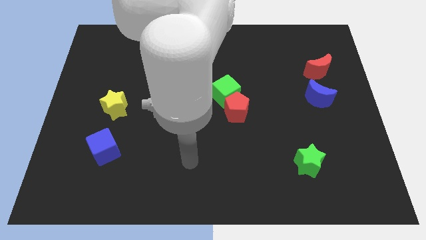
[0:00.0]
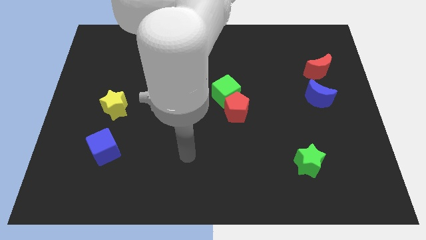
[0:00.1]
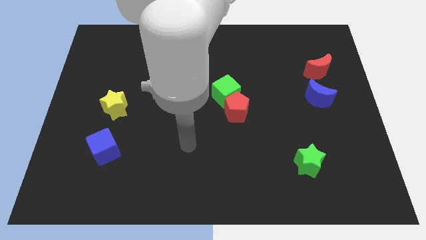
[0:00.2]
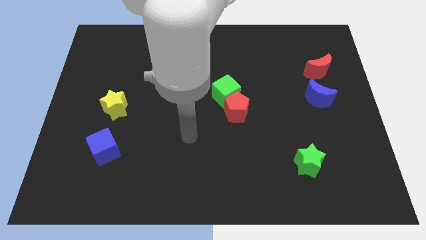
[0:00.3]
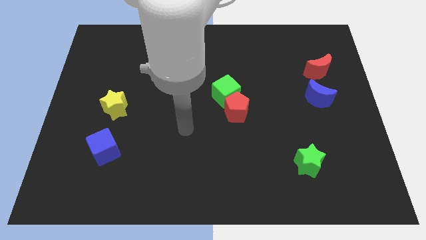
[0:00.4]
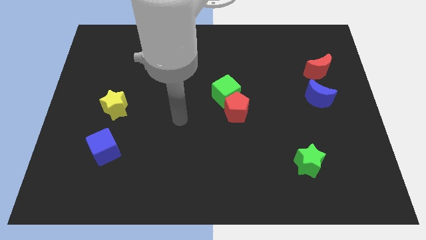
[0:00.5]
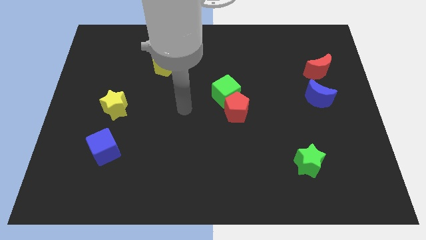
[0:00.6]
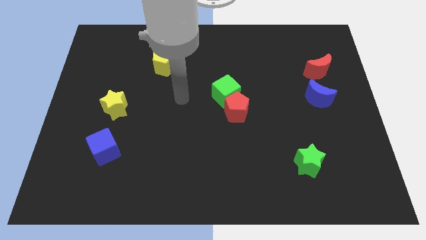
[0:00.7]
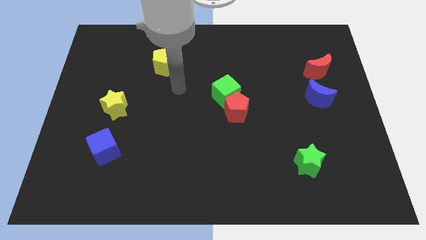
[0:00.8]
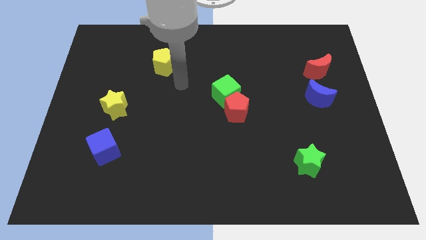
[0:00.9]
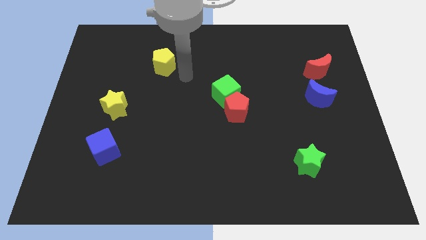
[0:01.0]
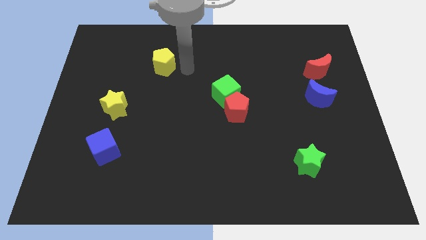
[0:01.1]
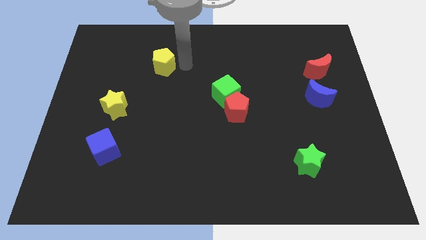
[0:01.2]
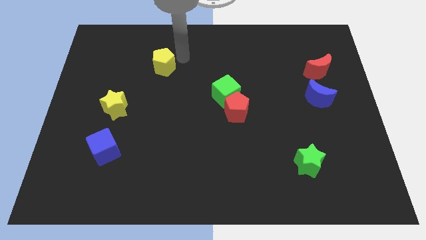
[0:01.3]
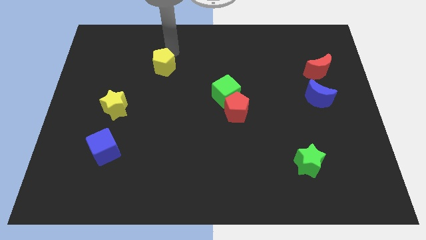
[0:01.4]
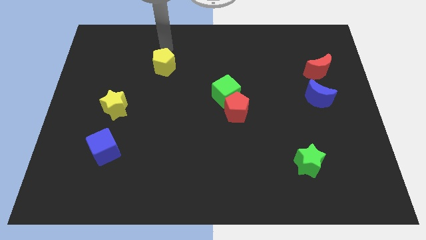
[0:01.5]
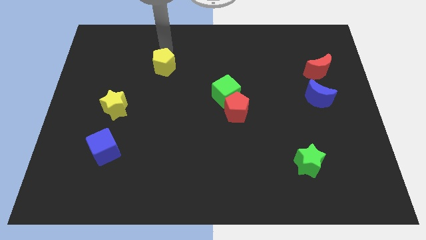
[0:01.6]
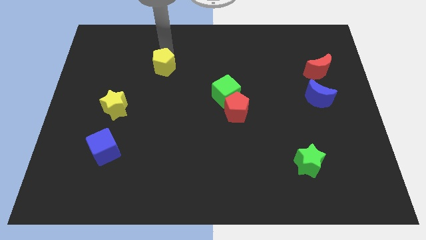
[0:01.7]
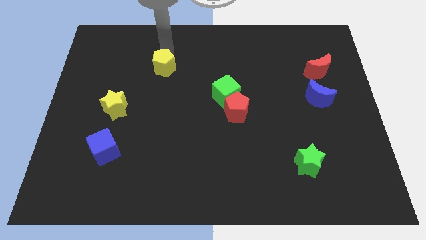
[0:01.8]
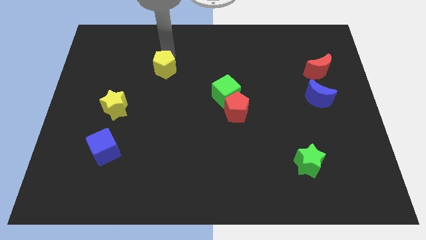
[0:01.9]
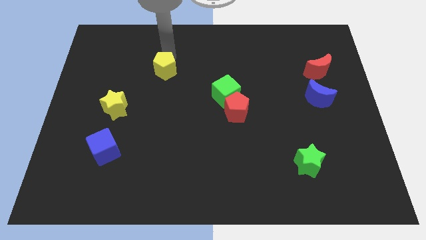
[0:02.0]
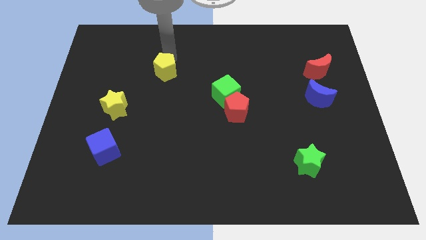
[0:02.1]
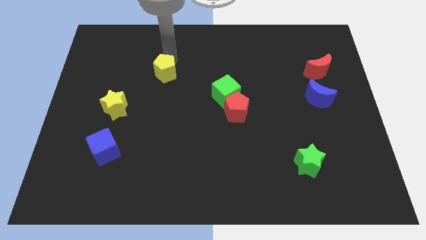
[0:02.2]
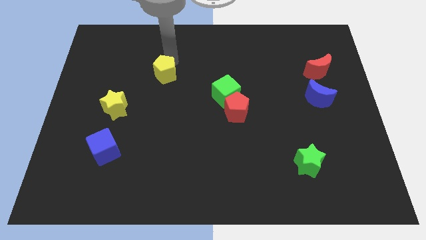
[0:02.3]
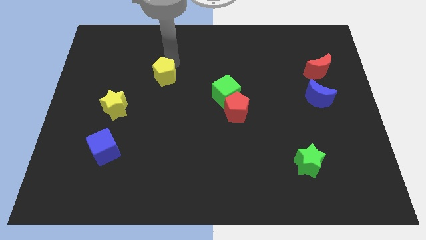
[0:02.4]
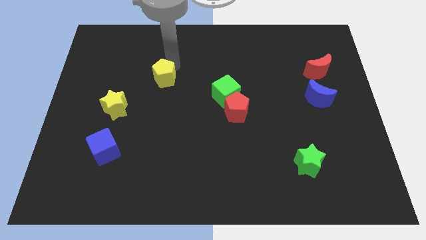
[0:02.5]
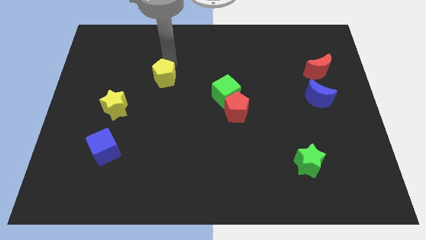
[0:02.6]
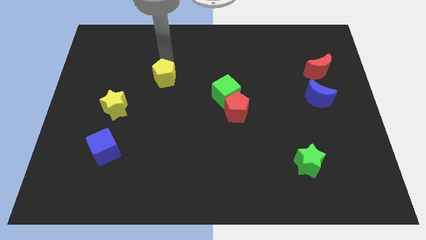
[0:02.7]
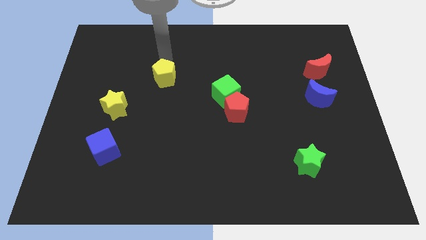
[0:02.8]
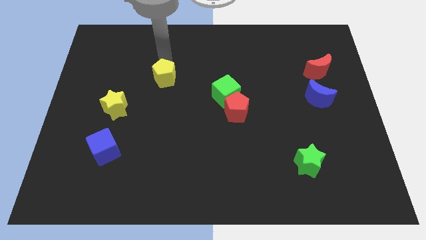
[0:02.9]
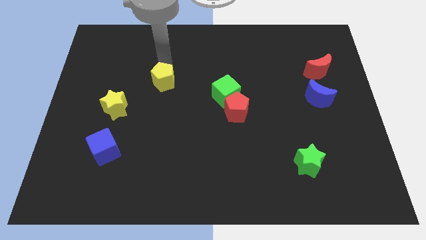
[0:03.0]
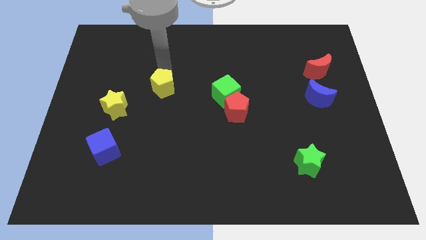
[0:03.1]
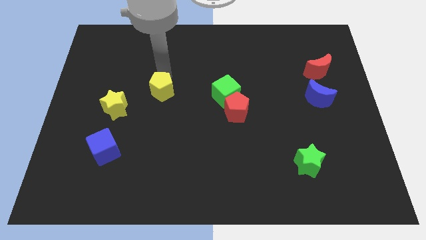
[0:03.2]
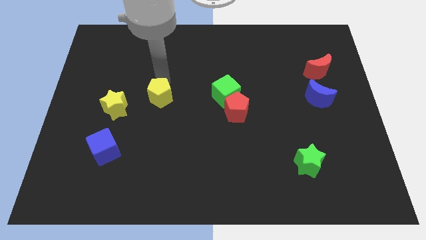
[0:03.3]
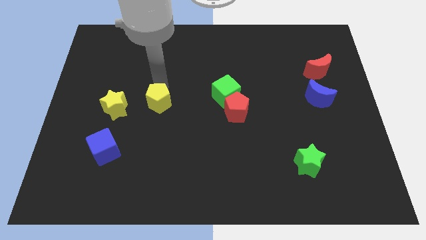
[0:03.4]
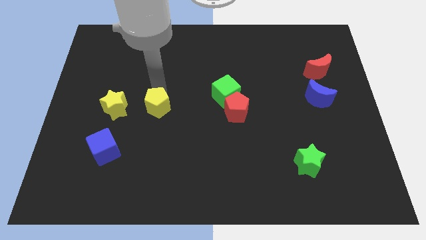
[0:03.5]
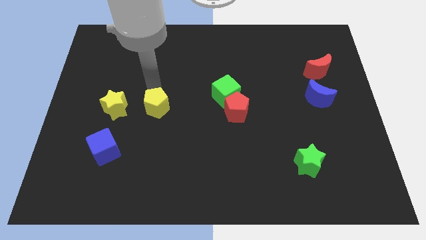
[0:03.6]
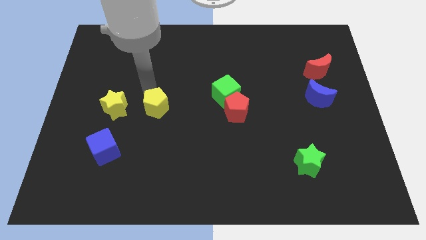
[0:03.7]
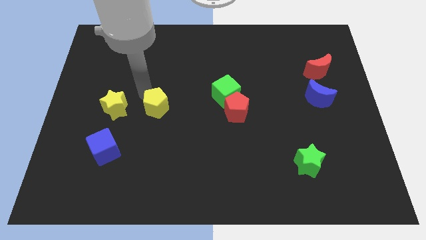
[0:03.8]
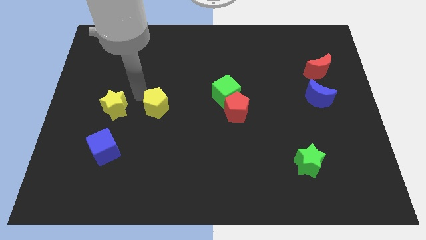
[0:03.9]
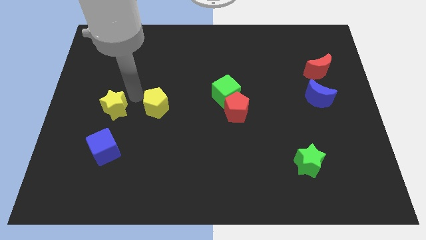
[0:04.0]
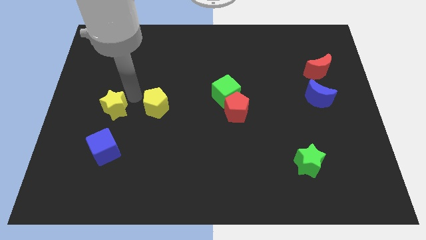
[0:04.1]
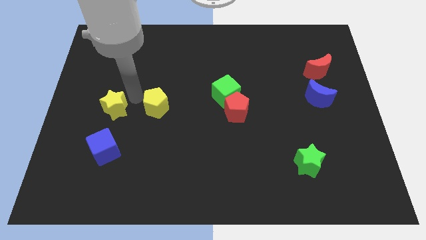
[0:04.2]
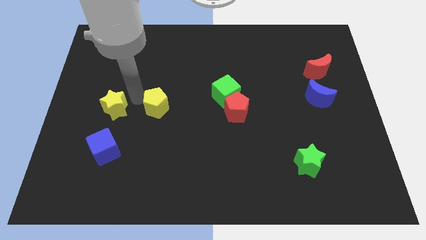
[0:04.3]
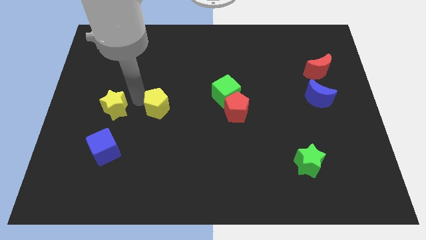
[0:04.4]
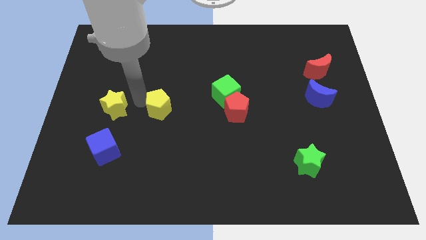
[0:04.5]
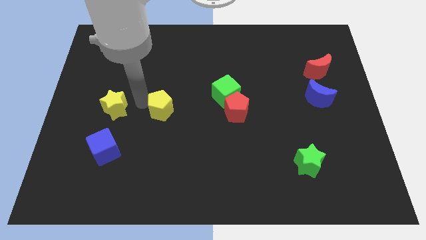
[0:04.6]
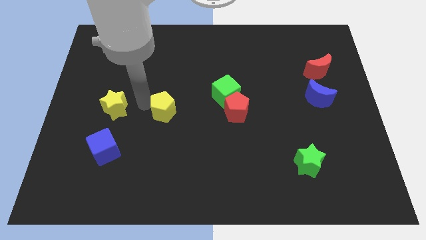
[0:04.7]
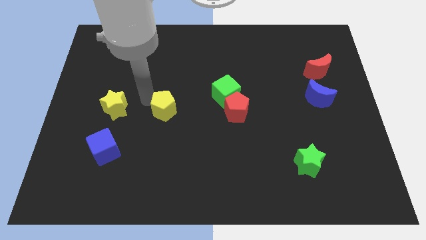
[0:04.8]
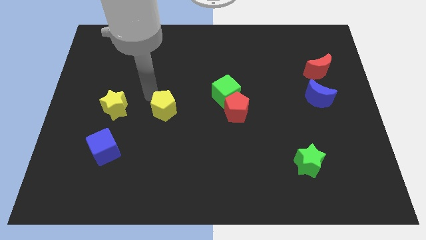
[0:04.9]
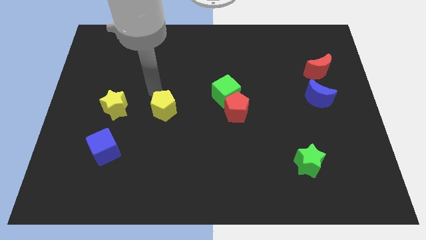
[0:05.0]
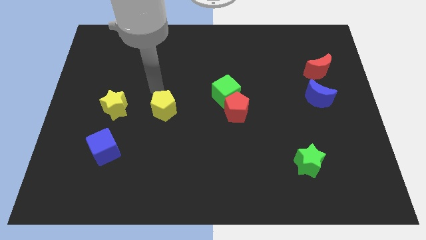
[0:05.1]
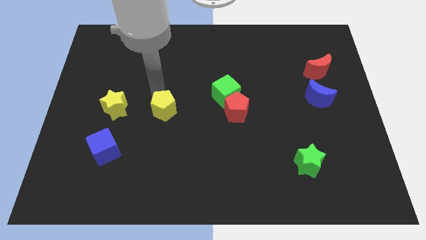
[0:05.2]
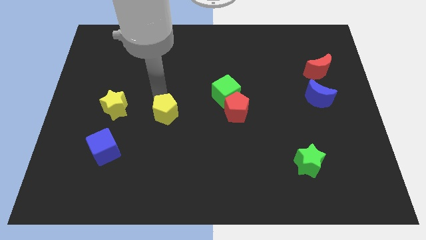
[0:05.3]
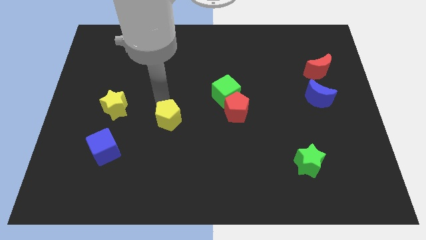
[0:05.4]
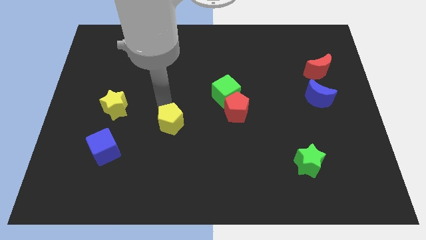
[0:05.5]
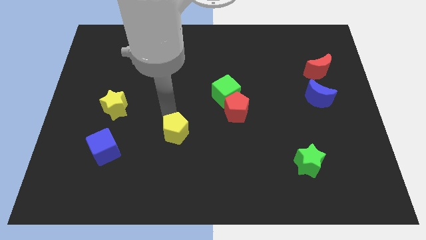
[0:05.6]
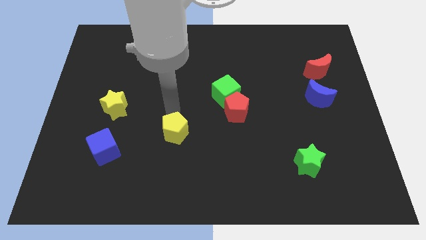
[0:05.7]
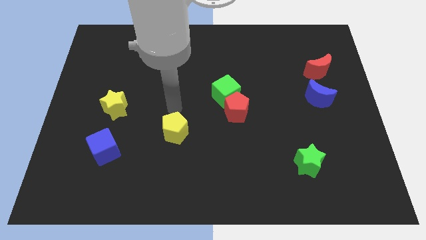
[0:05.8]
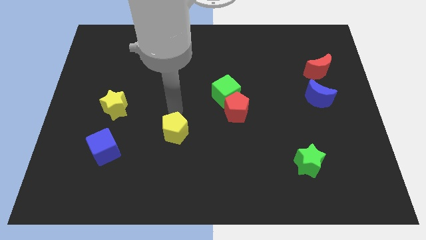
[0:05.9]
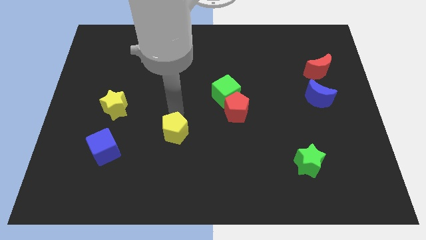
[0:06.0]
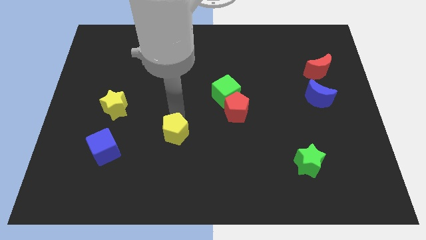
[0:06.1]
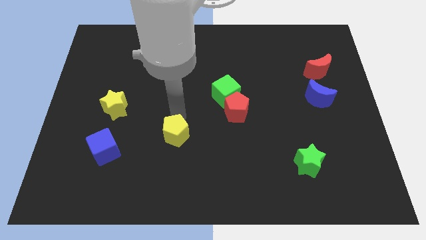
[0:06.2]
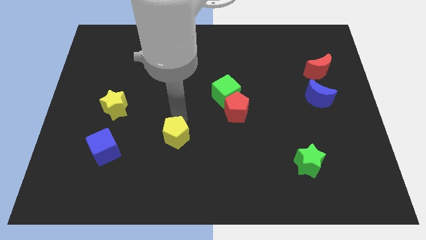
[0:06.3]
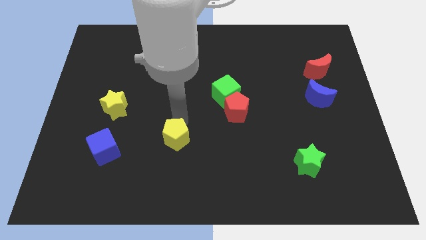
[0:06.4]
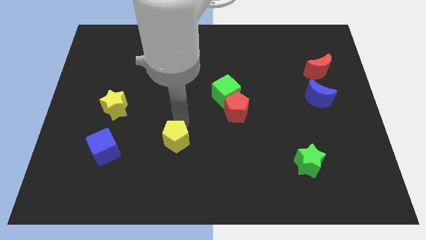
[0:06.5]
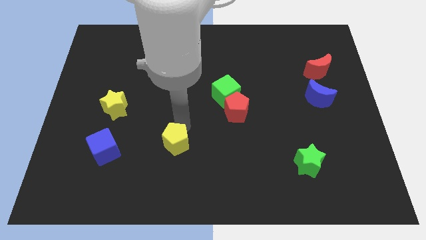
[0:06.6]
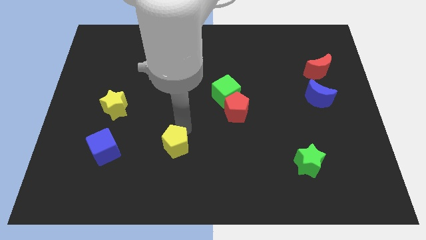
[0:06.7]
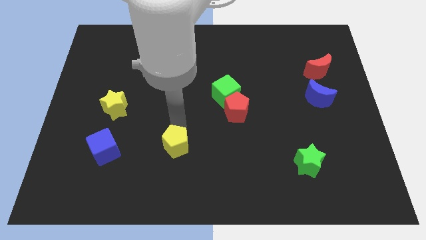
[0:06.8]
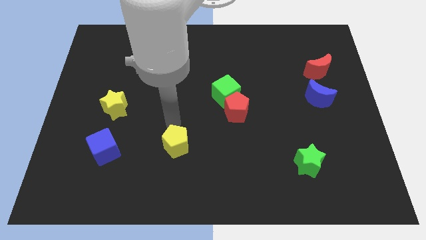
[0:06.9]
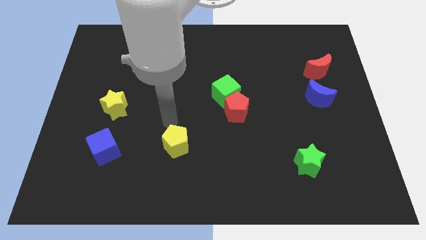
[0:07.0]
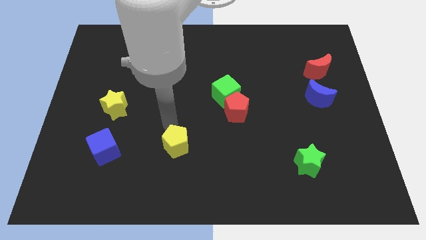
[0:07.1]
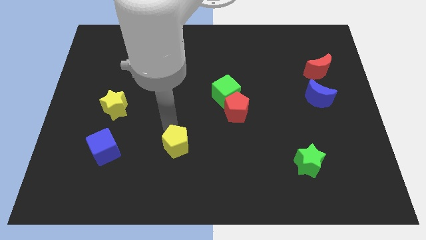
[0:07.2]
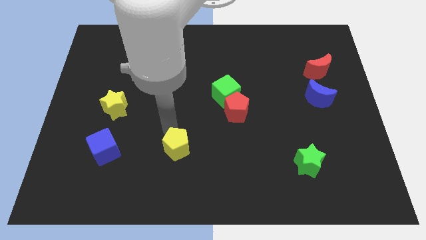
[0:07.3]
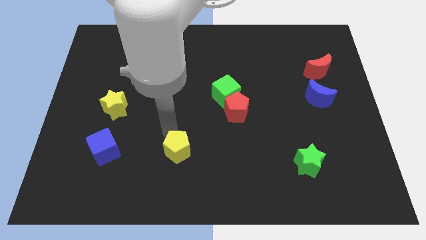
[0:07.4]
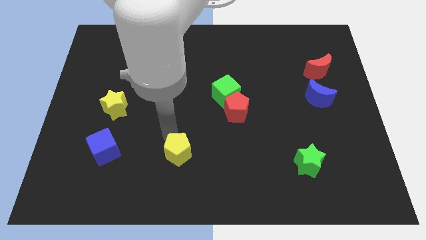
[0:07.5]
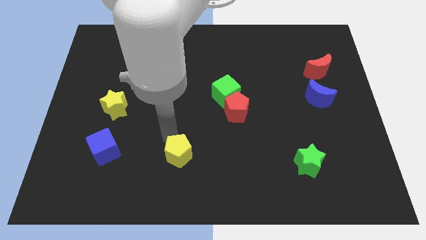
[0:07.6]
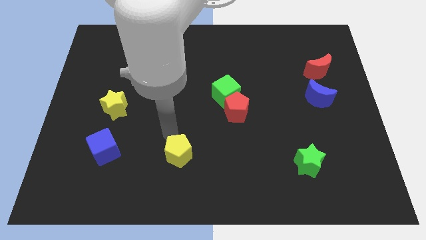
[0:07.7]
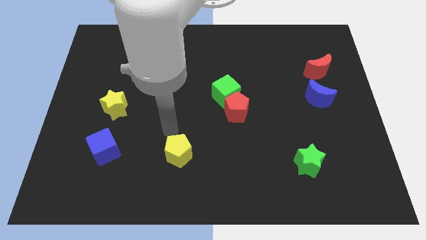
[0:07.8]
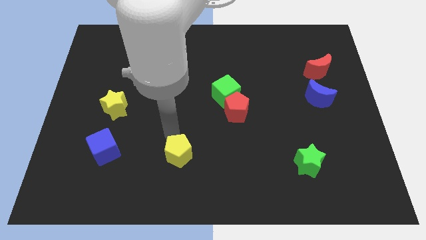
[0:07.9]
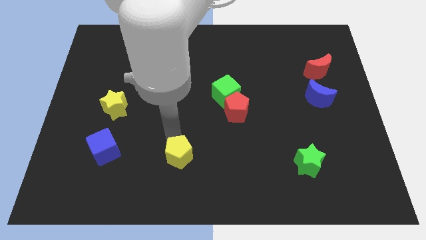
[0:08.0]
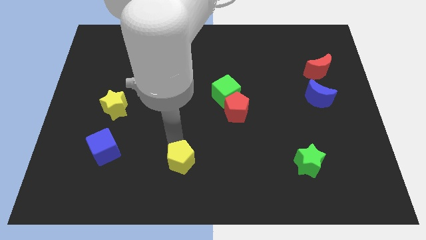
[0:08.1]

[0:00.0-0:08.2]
push the yellow pentagon to the bottom
